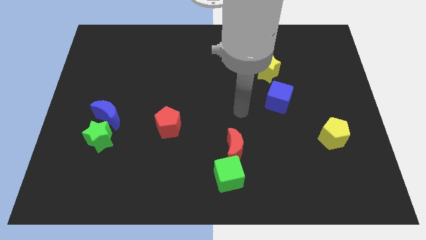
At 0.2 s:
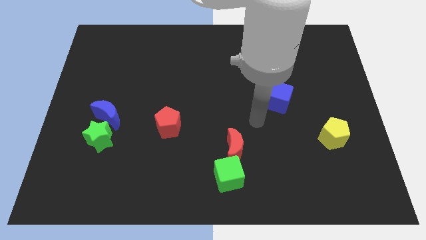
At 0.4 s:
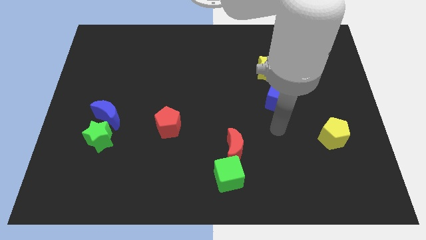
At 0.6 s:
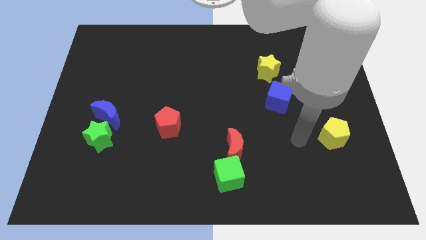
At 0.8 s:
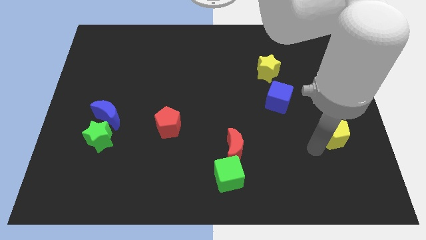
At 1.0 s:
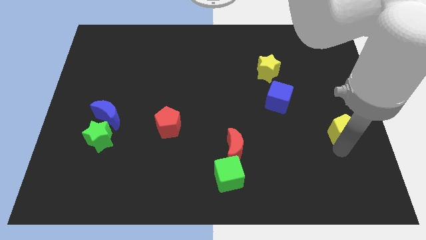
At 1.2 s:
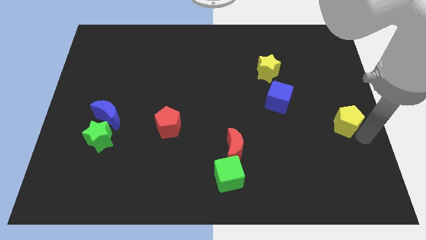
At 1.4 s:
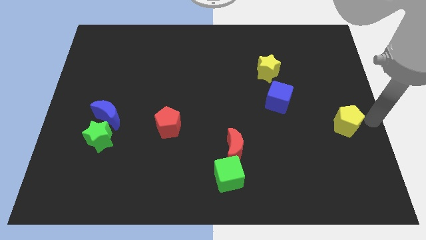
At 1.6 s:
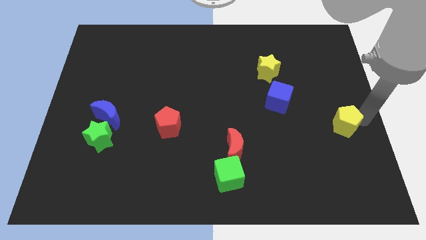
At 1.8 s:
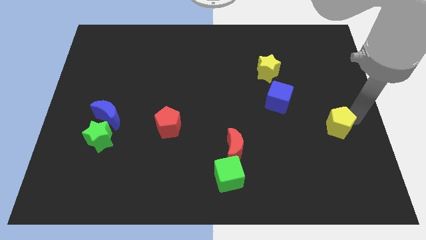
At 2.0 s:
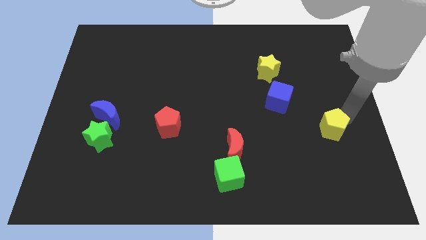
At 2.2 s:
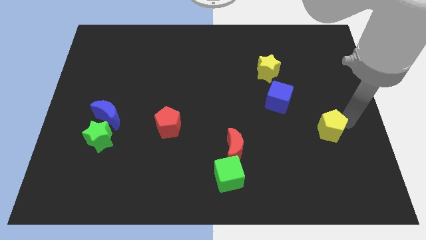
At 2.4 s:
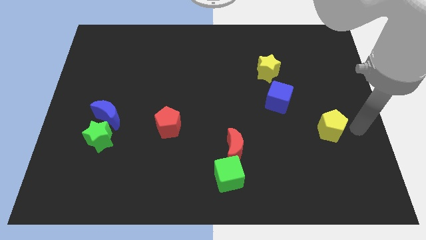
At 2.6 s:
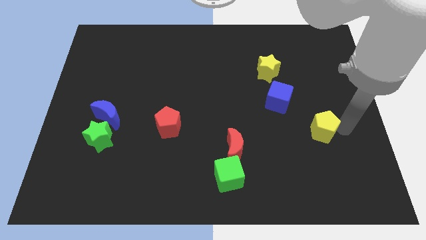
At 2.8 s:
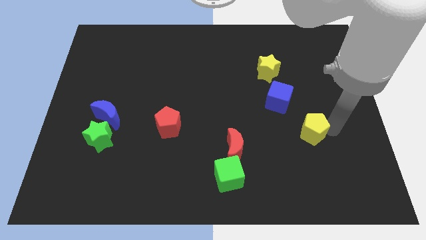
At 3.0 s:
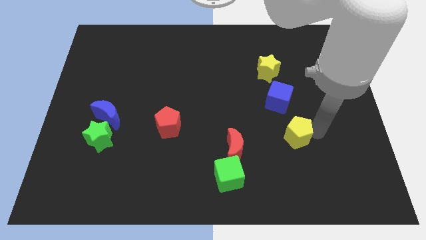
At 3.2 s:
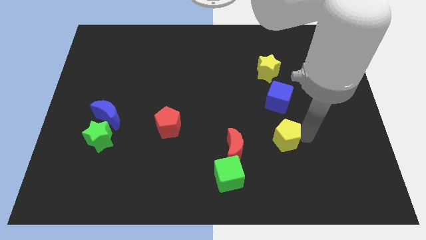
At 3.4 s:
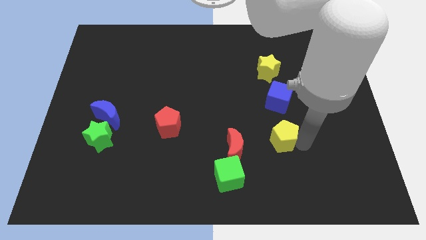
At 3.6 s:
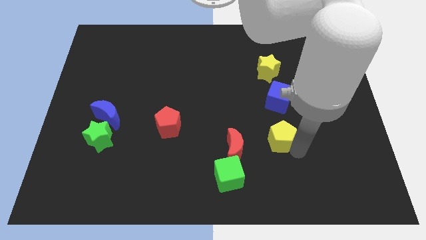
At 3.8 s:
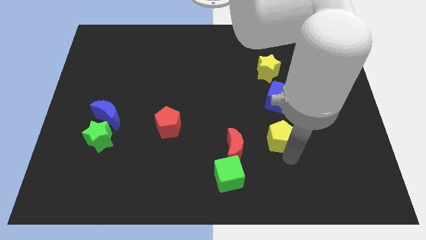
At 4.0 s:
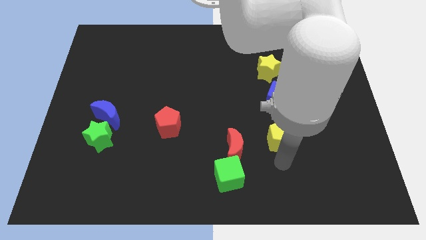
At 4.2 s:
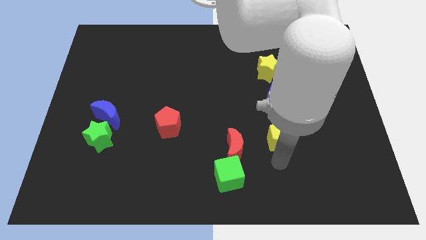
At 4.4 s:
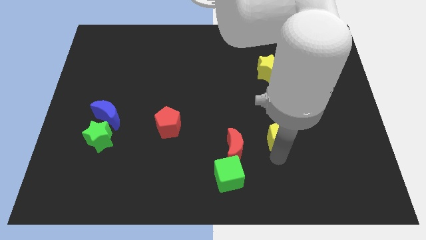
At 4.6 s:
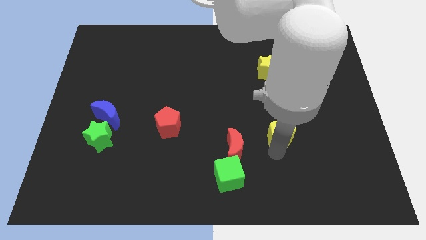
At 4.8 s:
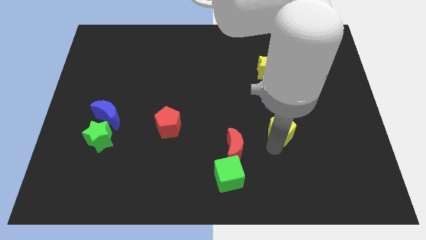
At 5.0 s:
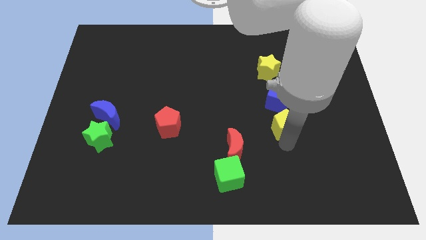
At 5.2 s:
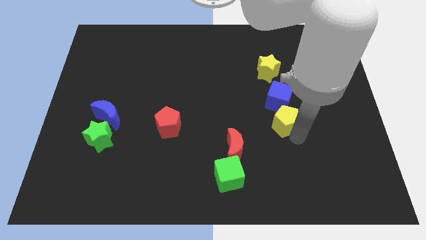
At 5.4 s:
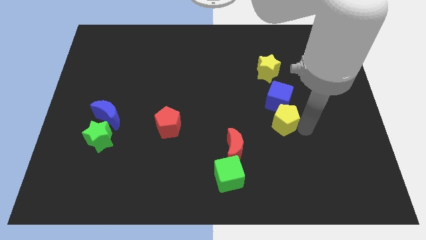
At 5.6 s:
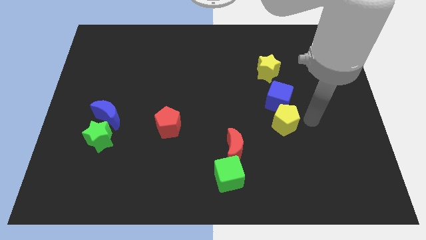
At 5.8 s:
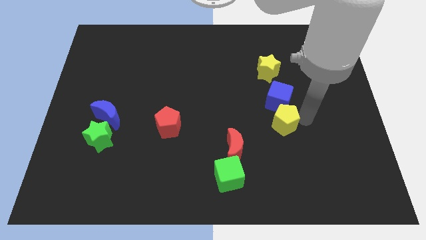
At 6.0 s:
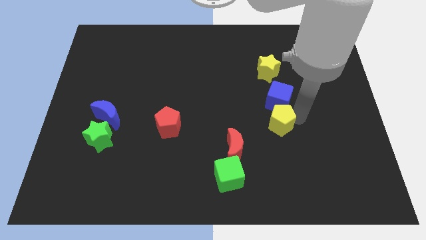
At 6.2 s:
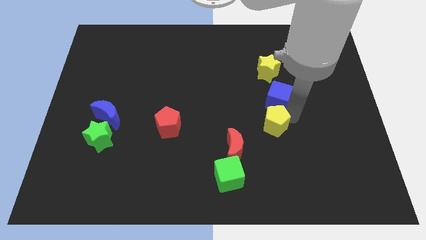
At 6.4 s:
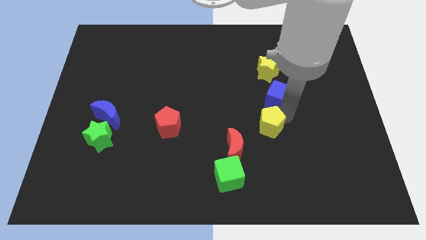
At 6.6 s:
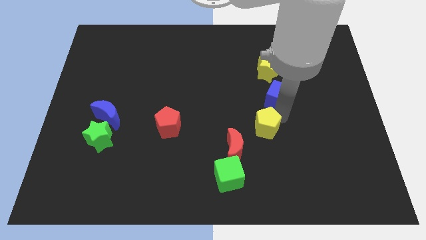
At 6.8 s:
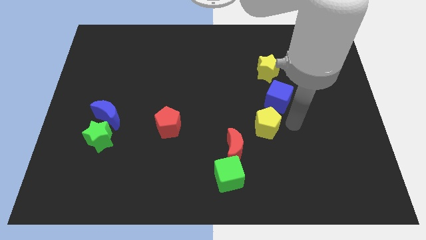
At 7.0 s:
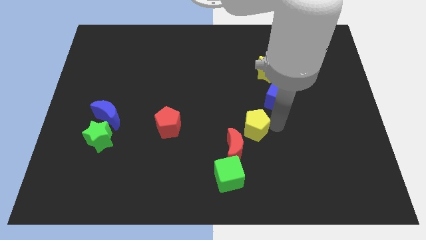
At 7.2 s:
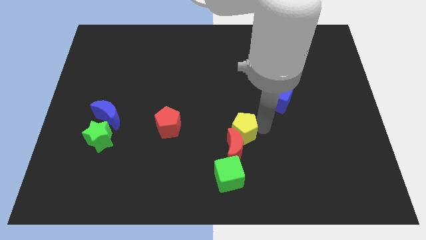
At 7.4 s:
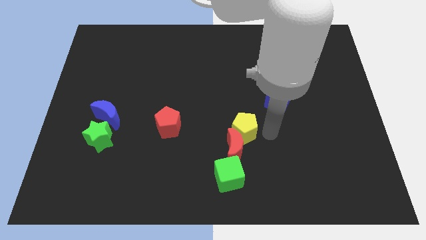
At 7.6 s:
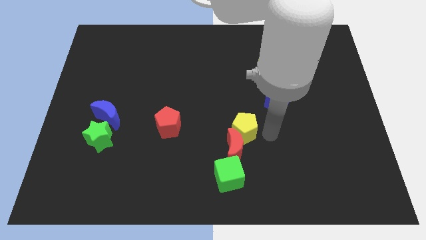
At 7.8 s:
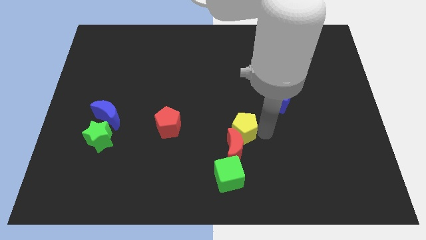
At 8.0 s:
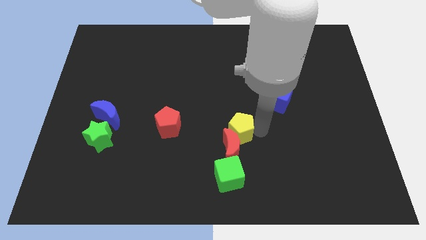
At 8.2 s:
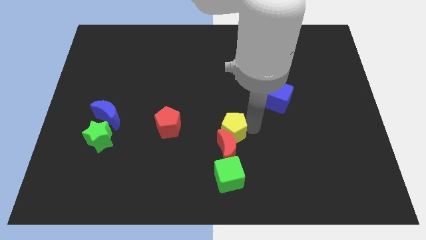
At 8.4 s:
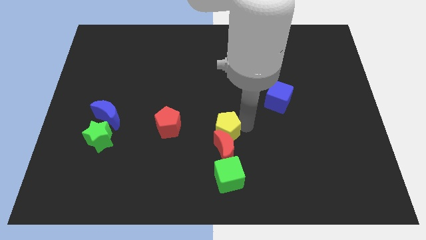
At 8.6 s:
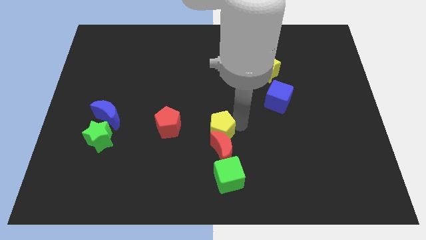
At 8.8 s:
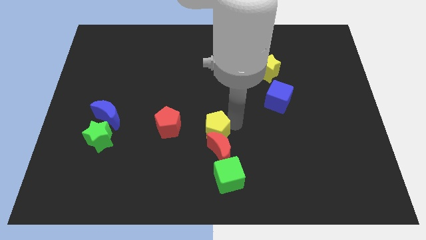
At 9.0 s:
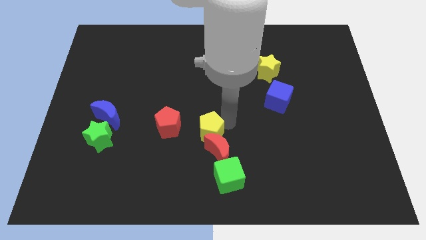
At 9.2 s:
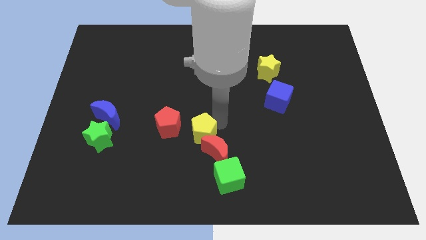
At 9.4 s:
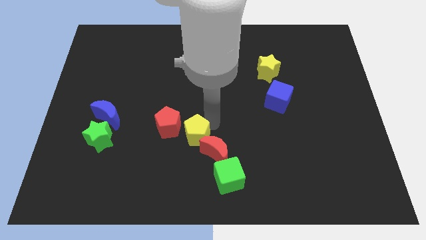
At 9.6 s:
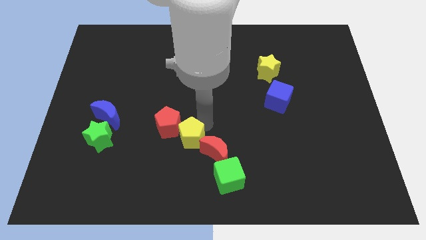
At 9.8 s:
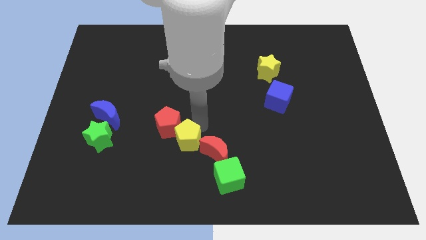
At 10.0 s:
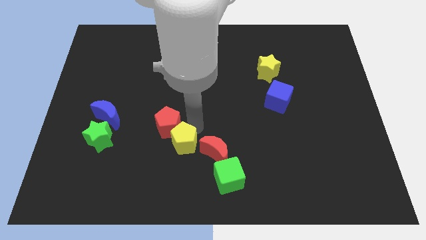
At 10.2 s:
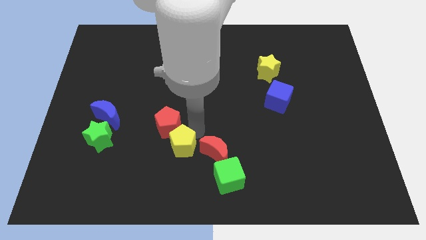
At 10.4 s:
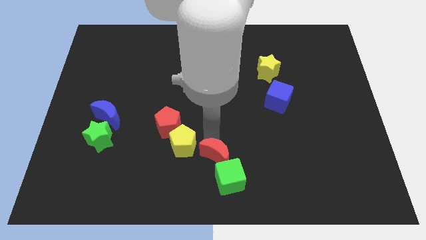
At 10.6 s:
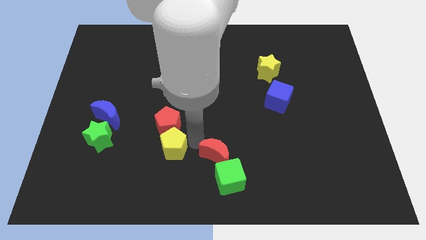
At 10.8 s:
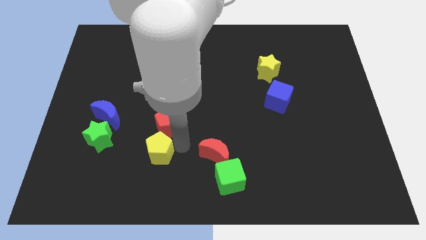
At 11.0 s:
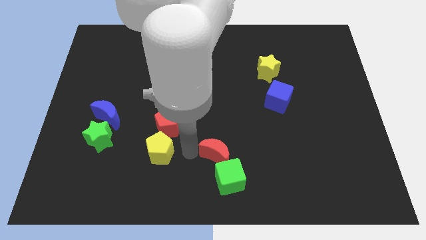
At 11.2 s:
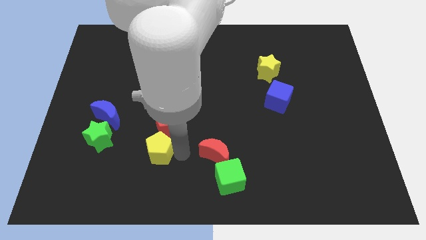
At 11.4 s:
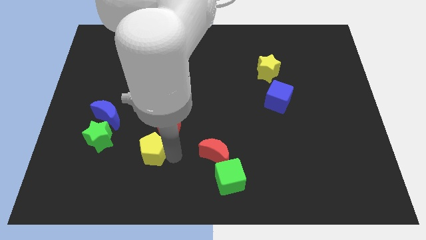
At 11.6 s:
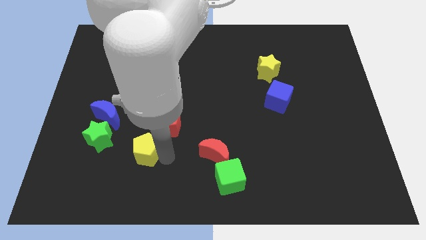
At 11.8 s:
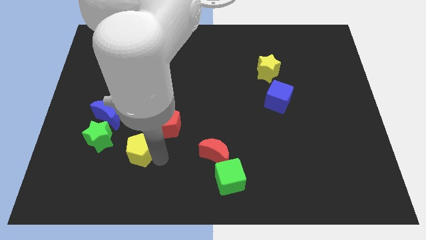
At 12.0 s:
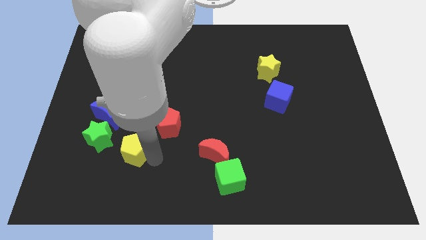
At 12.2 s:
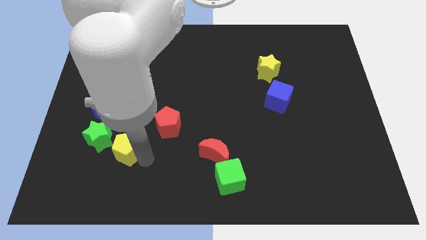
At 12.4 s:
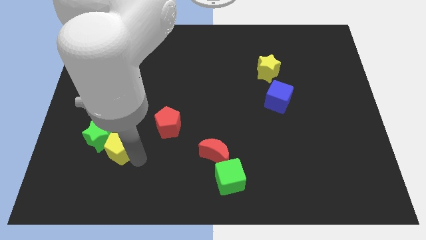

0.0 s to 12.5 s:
put the yellow pentagon next to the green star
